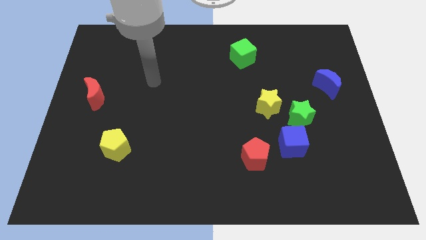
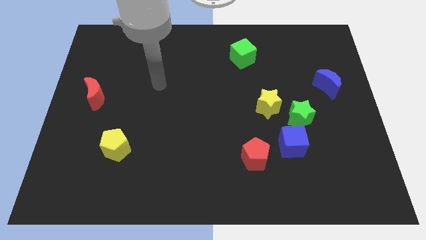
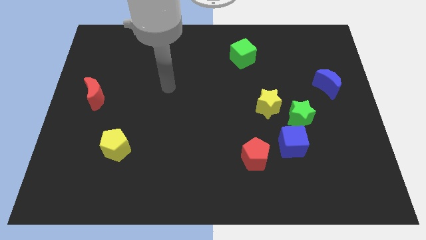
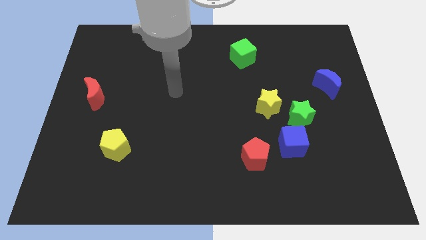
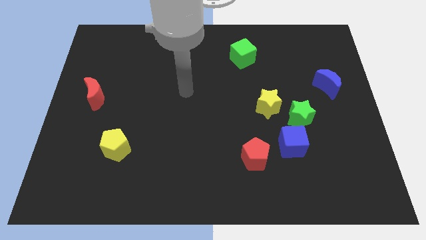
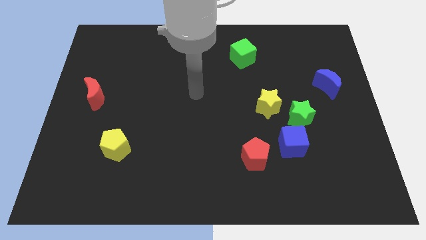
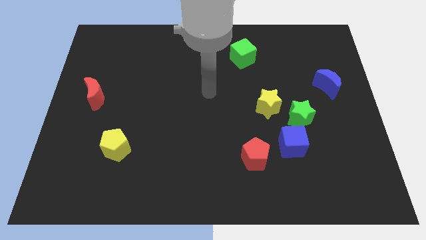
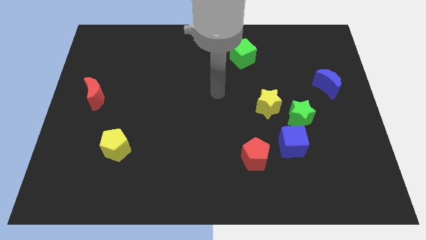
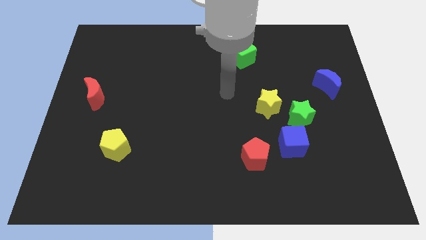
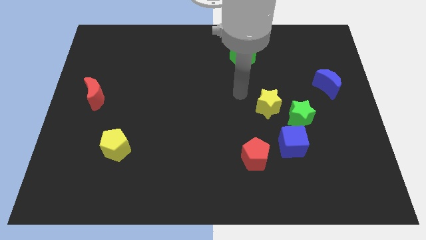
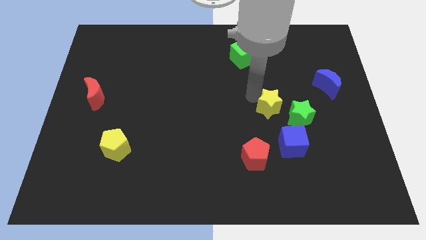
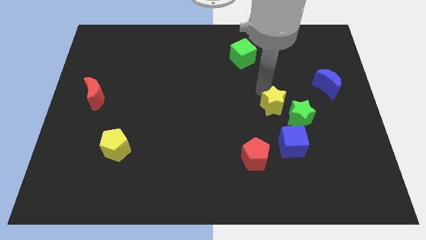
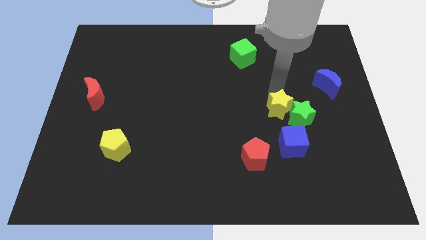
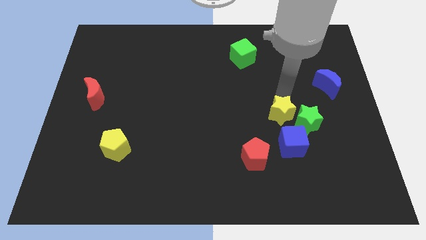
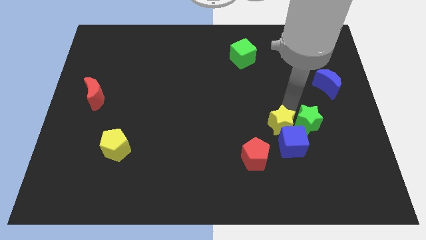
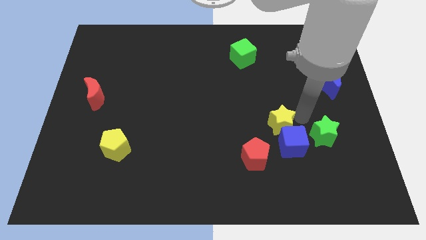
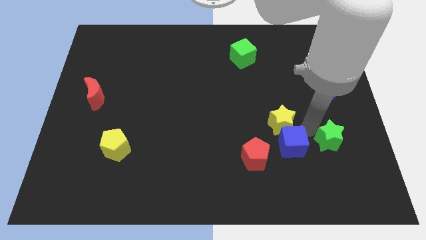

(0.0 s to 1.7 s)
move the yellow star away from the green star

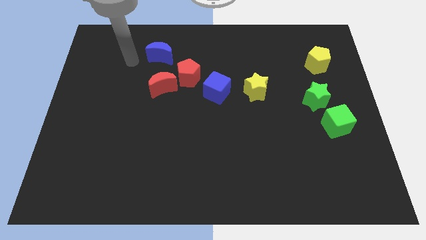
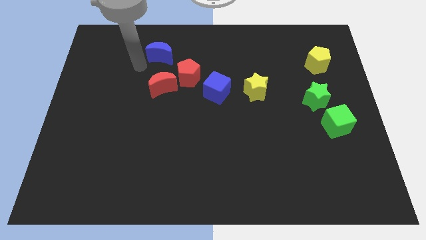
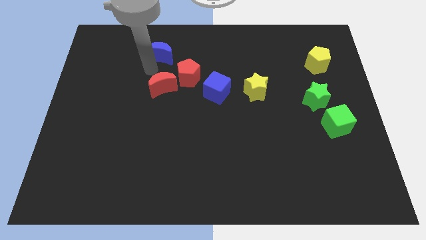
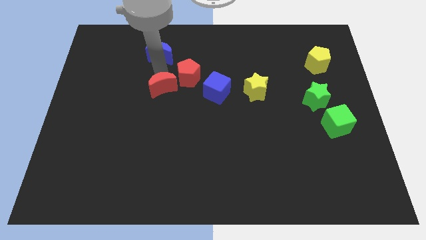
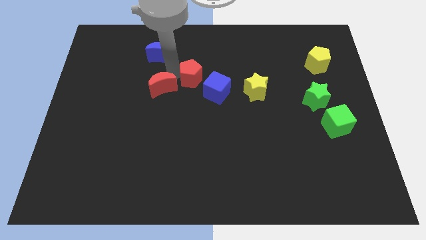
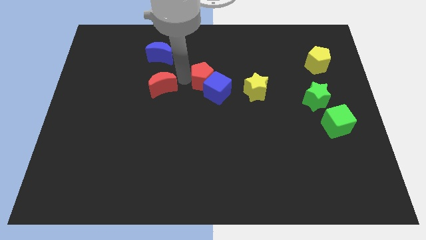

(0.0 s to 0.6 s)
move the red moon away from the red pentagon

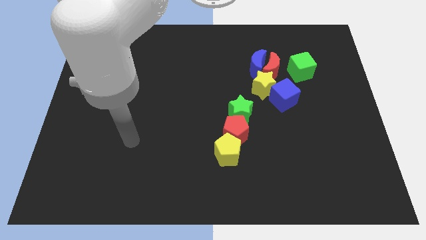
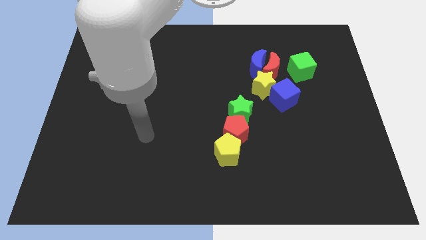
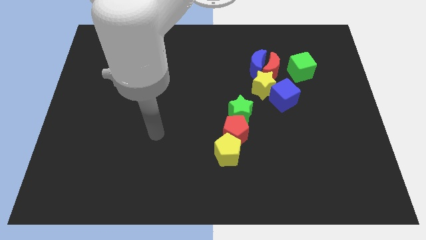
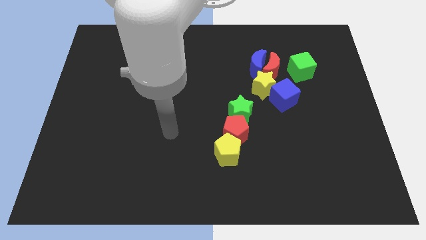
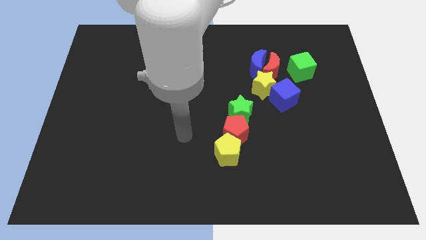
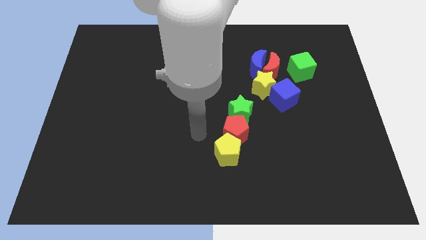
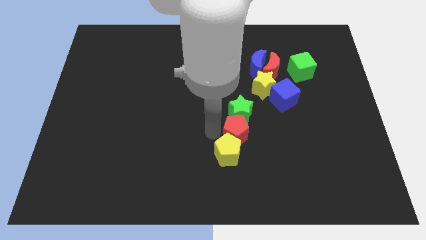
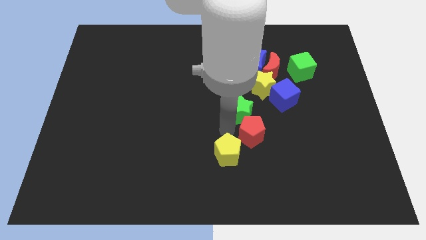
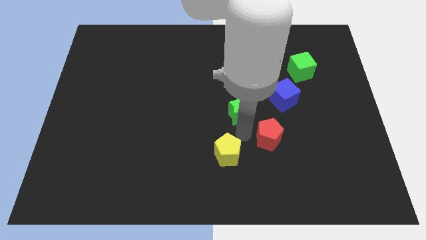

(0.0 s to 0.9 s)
move the yellow pentagon away from the red pentagon

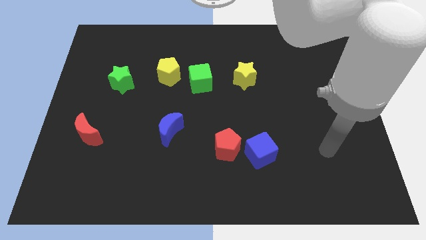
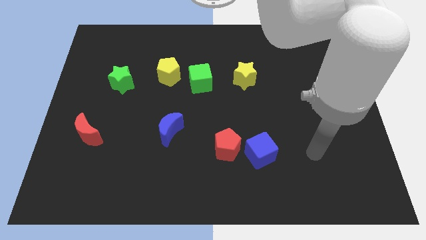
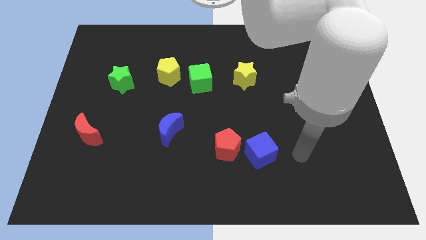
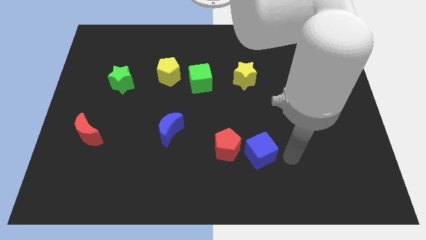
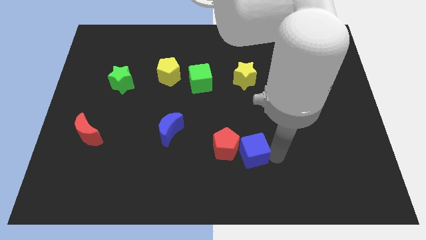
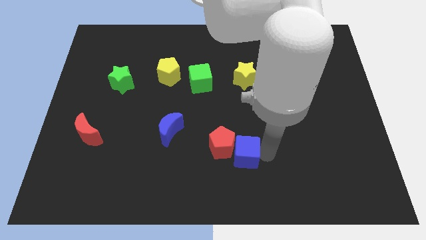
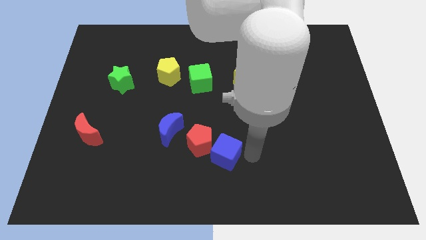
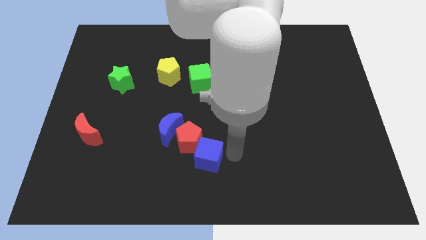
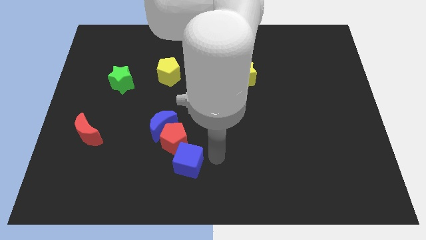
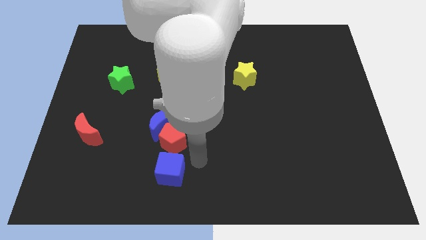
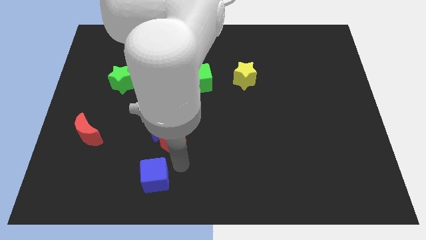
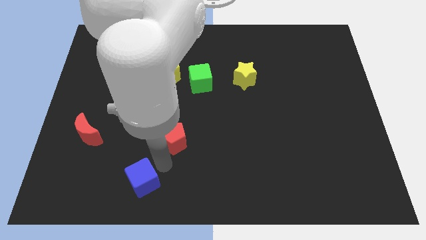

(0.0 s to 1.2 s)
move the red pentagon away from the blue cube

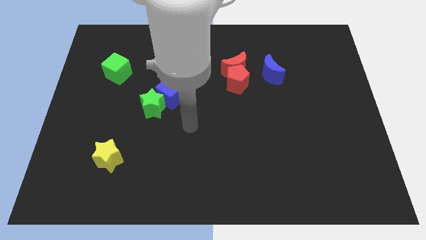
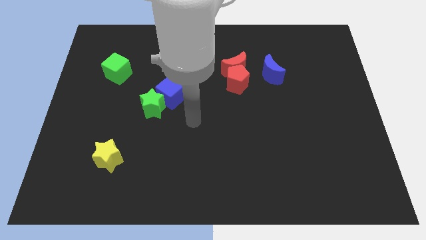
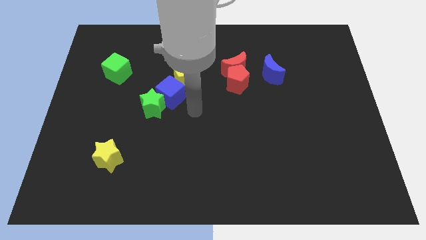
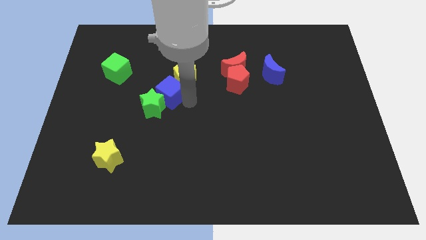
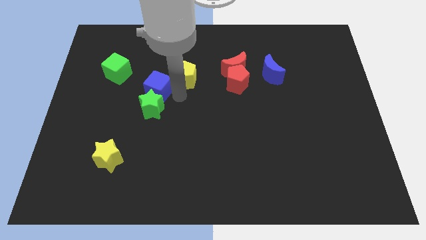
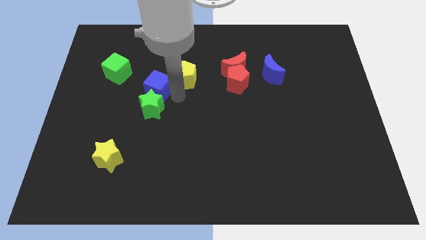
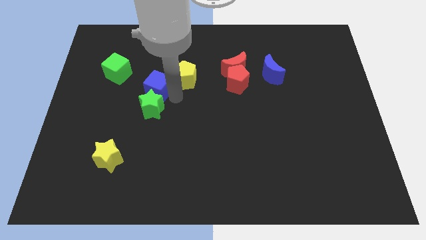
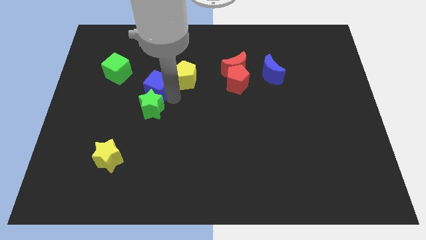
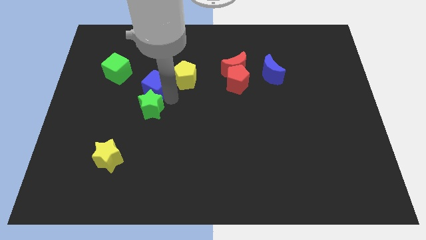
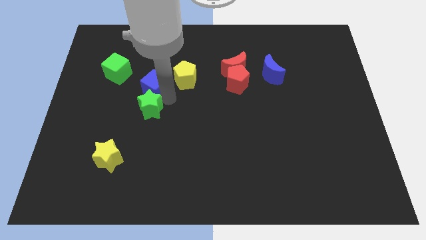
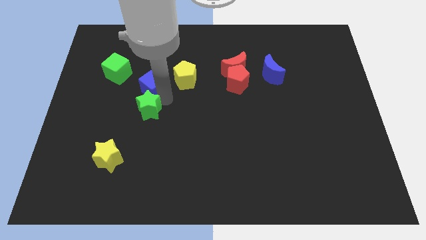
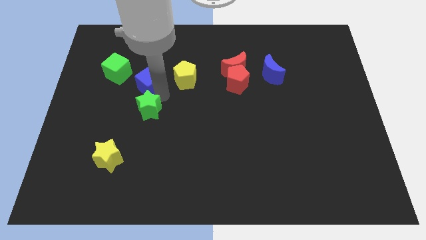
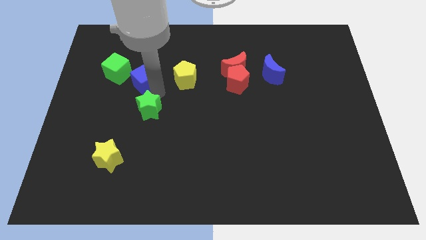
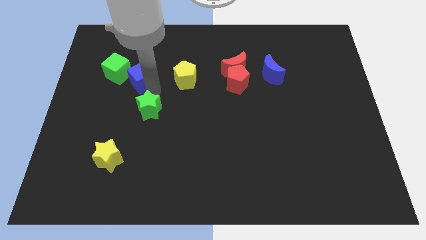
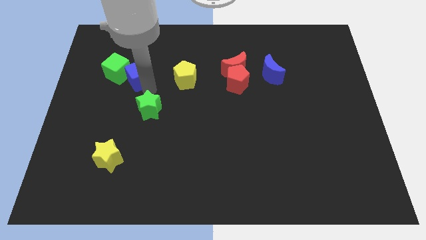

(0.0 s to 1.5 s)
pull the green star apart from the blue cube

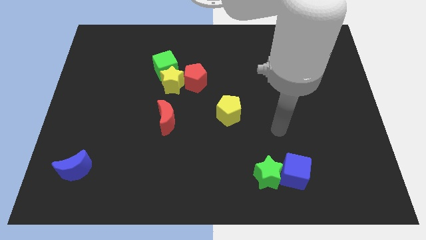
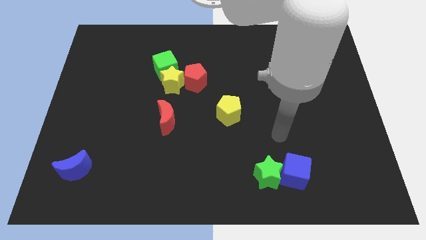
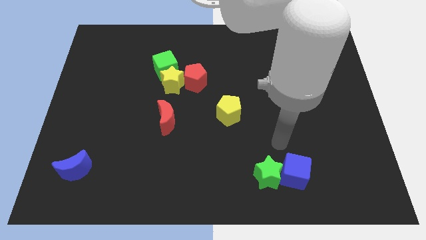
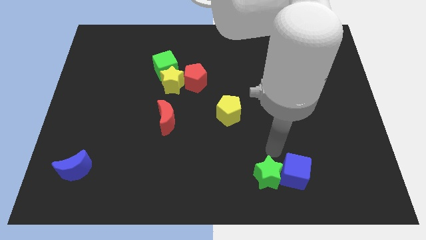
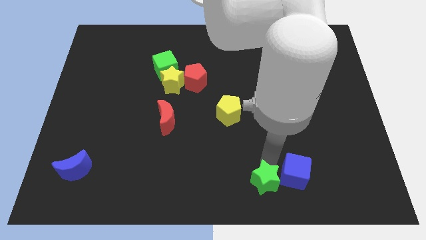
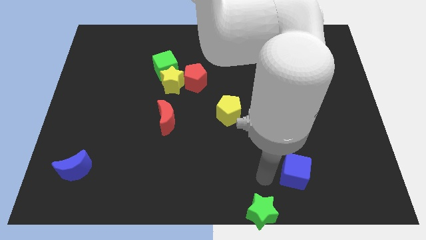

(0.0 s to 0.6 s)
separate the blue cube from the green star

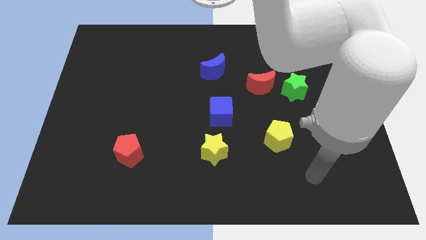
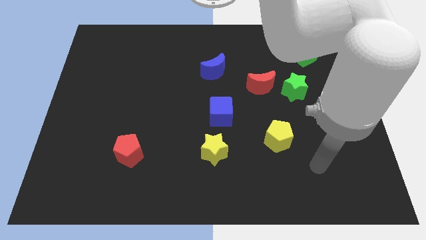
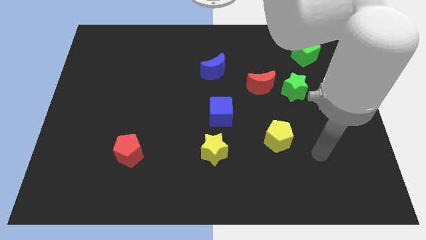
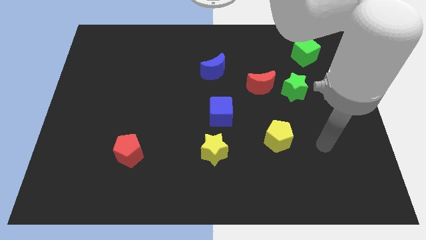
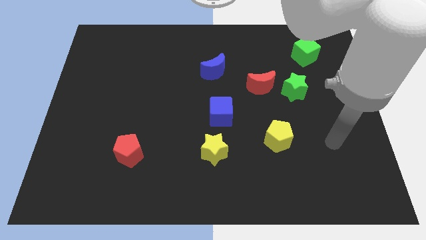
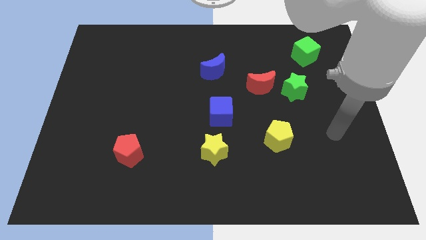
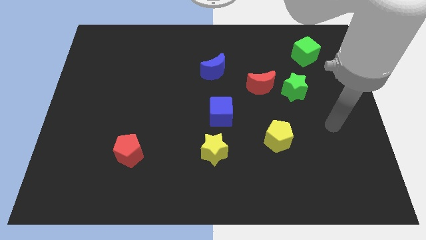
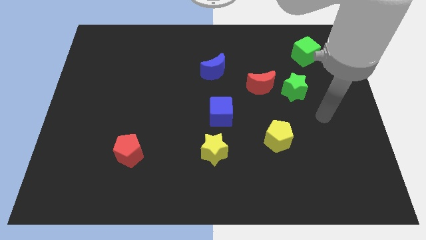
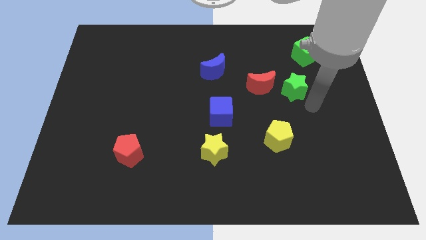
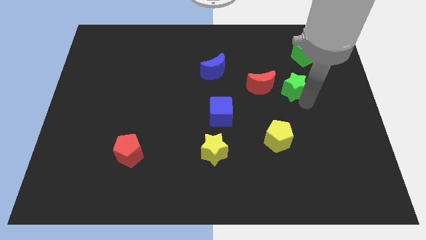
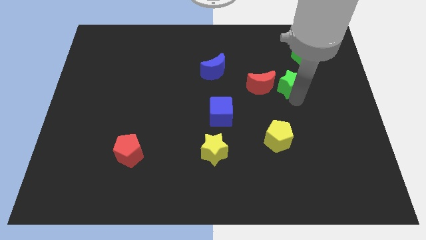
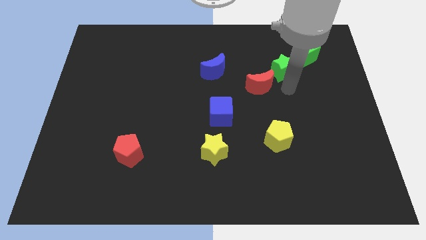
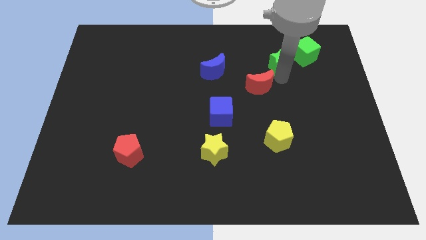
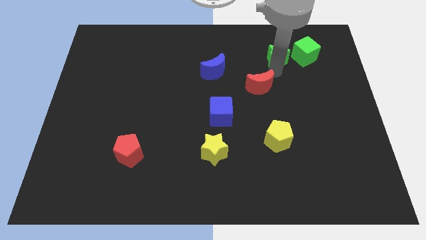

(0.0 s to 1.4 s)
move the red moon away from the green star

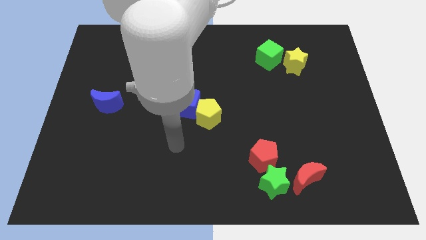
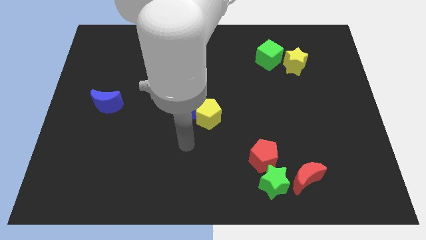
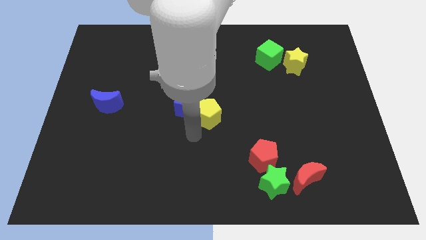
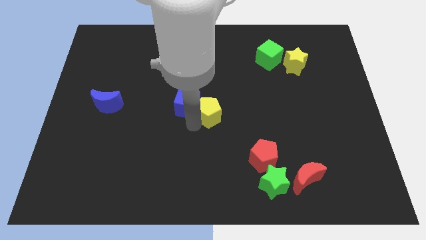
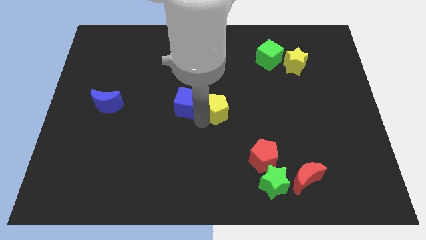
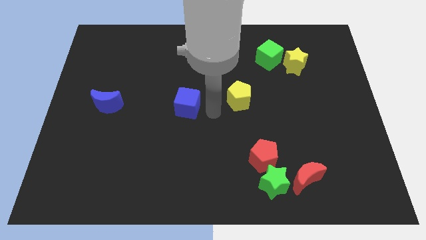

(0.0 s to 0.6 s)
pull the blue cube apart from the yellow pentagon

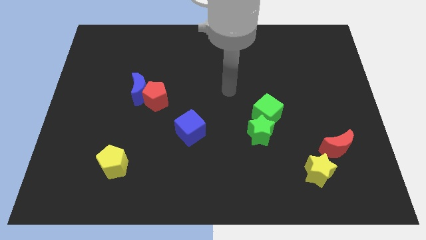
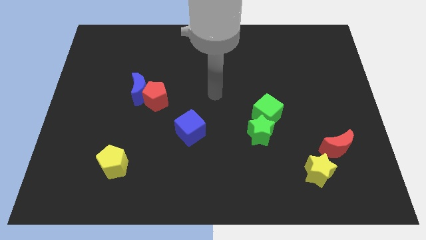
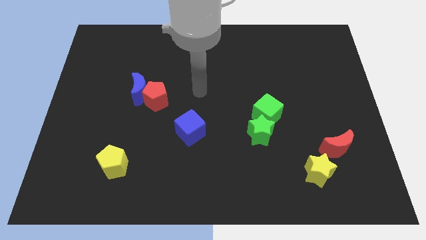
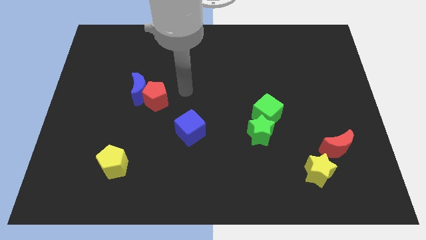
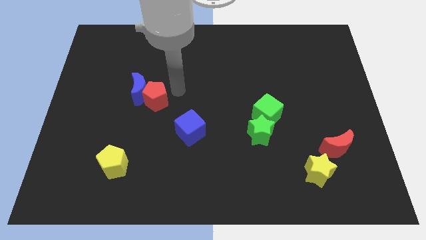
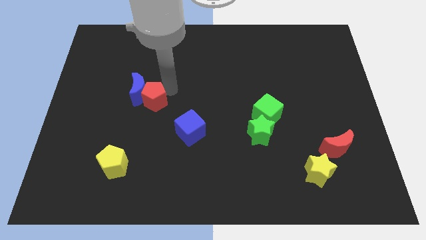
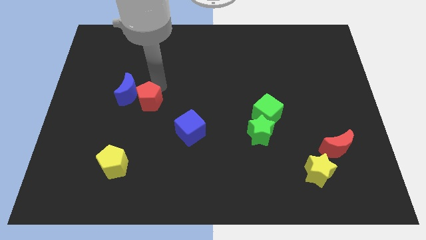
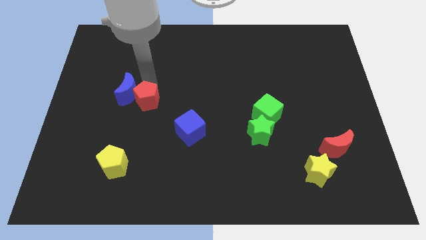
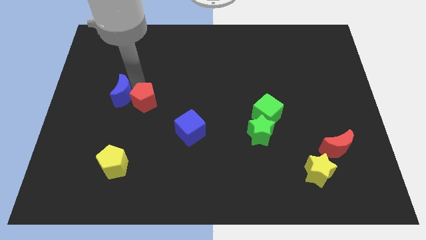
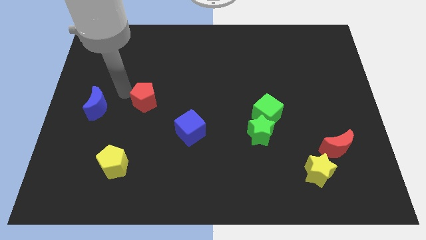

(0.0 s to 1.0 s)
separate the red pentagon from the blue moon

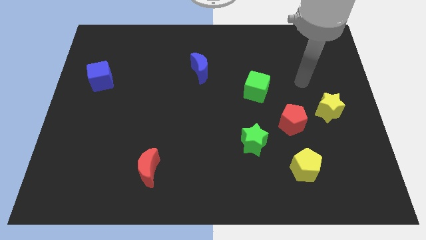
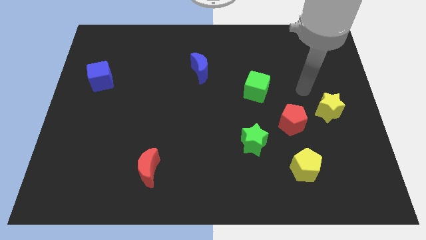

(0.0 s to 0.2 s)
pull the red pentagon apart from the yellow star
